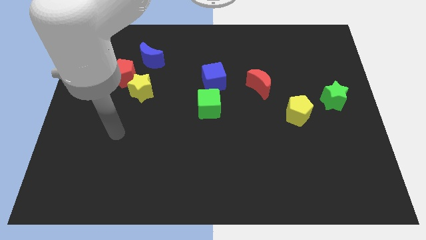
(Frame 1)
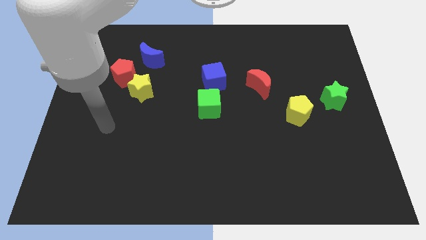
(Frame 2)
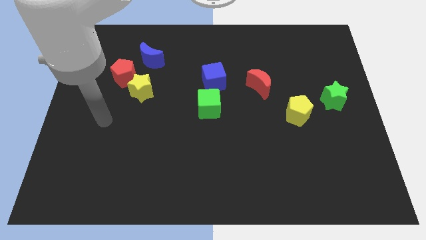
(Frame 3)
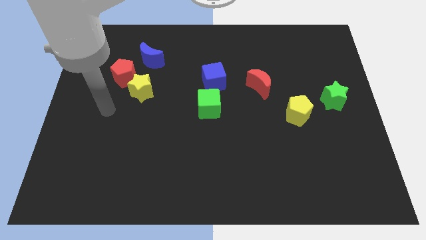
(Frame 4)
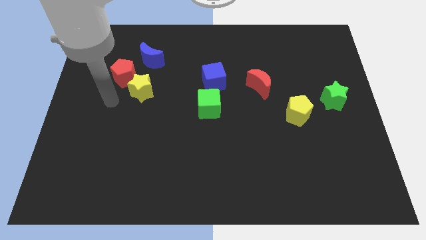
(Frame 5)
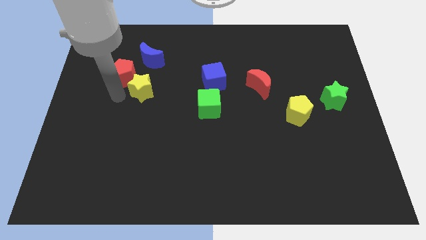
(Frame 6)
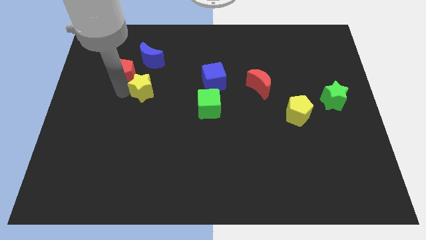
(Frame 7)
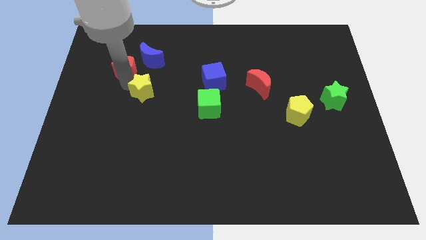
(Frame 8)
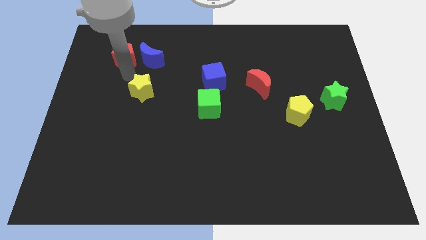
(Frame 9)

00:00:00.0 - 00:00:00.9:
move the yellow star away from the red pentagon

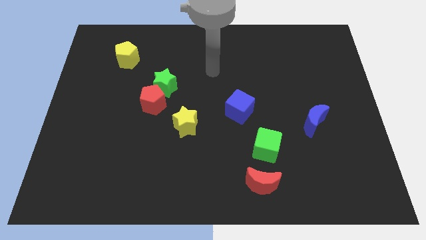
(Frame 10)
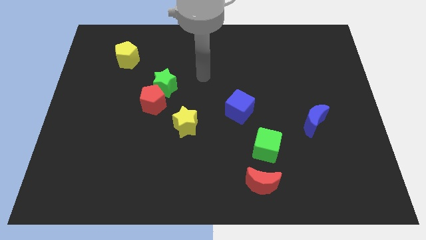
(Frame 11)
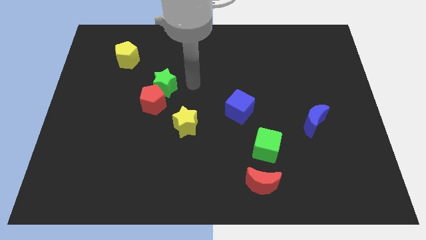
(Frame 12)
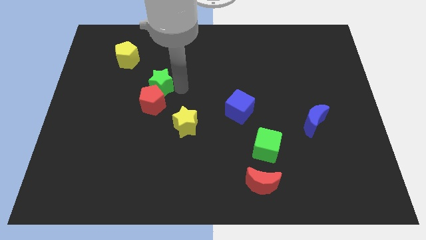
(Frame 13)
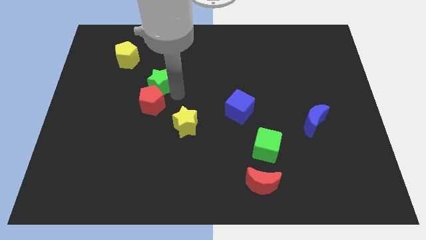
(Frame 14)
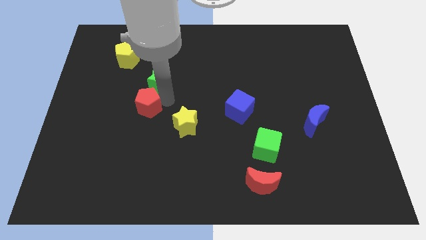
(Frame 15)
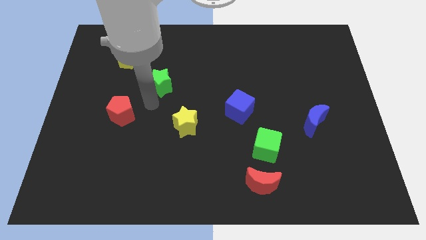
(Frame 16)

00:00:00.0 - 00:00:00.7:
separate the green star from the red pentagon

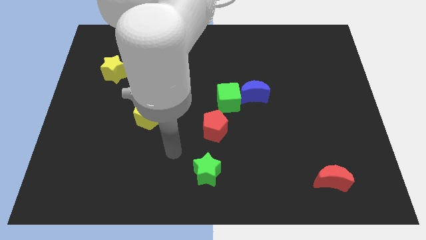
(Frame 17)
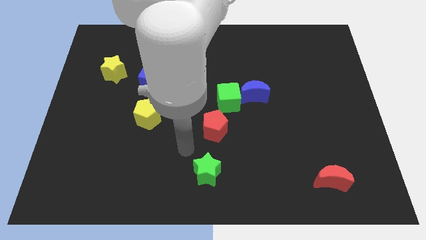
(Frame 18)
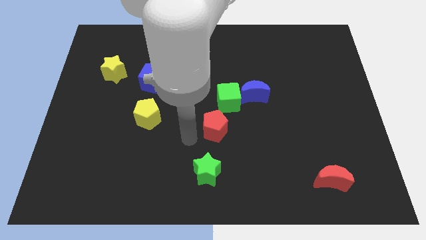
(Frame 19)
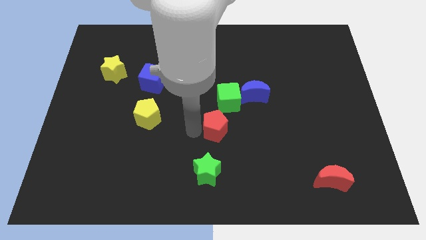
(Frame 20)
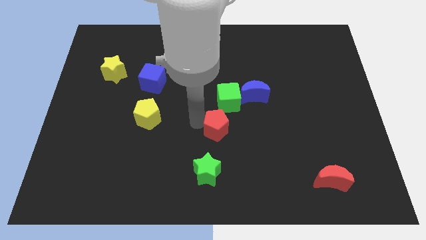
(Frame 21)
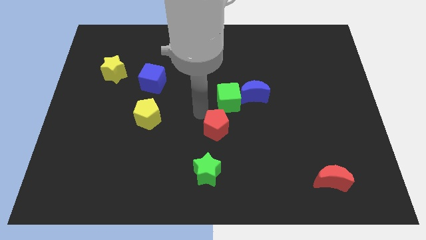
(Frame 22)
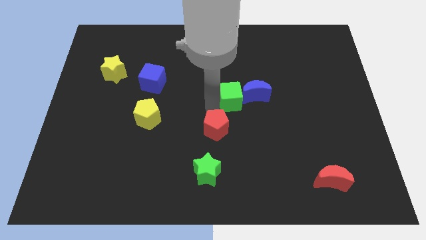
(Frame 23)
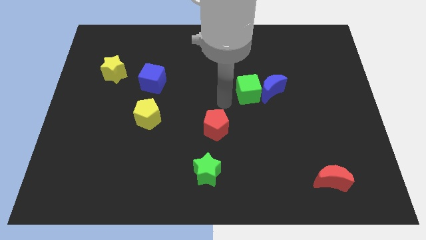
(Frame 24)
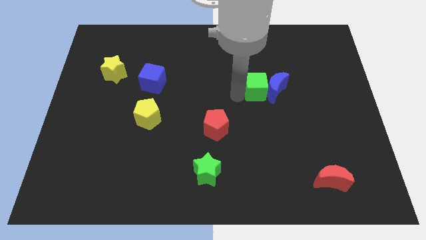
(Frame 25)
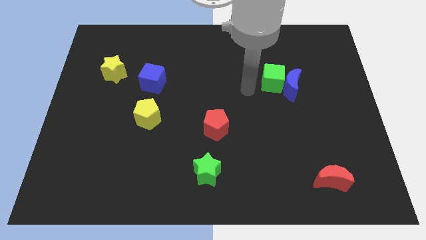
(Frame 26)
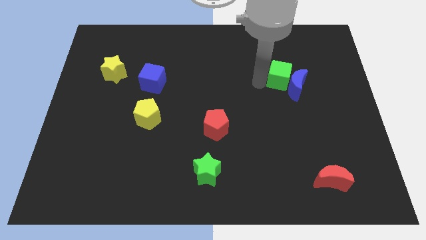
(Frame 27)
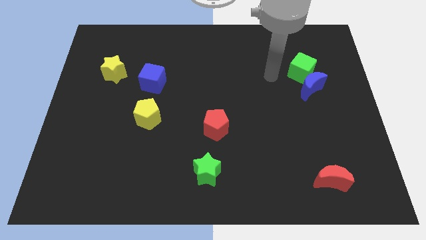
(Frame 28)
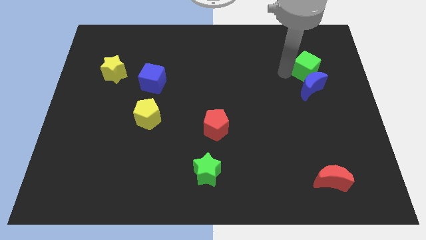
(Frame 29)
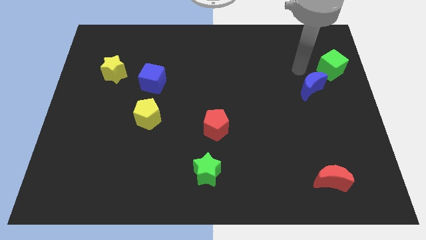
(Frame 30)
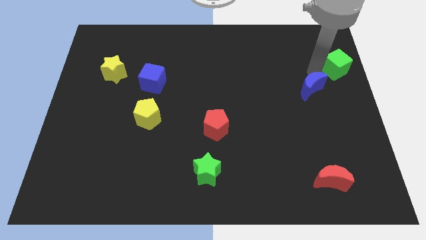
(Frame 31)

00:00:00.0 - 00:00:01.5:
pull the blue moon apart from the green cube

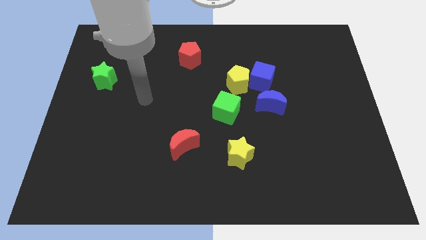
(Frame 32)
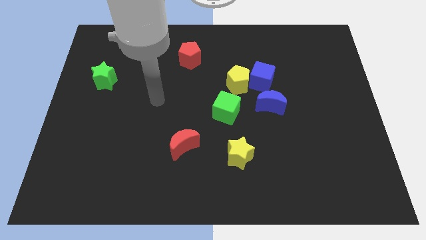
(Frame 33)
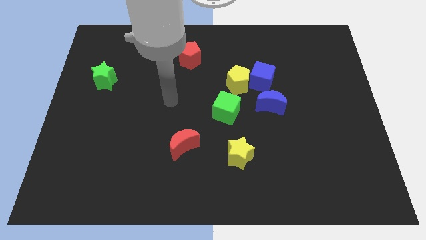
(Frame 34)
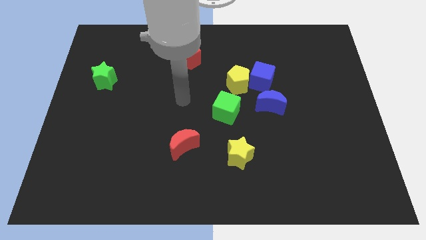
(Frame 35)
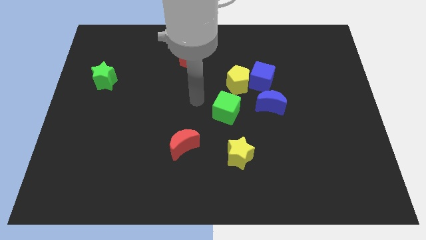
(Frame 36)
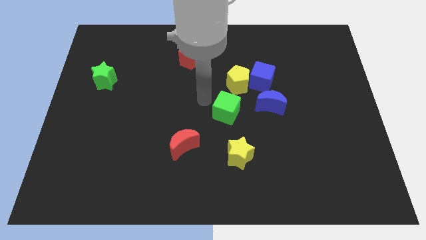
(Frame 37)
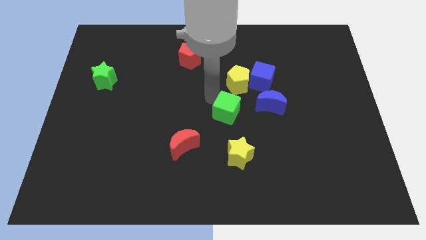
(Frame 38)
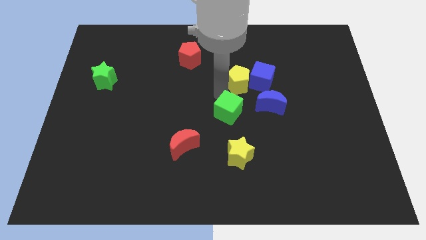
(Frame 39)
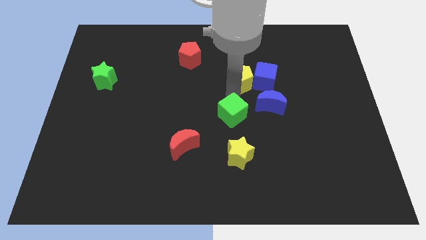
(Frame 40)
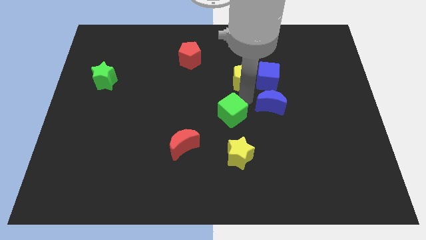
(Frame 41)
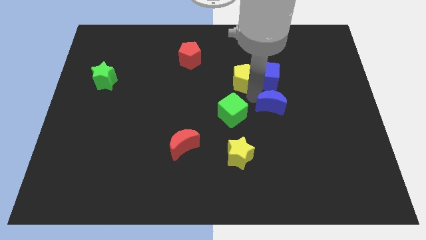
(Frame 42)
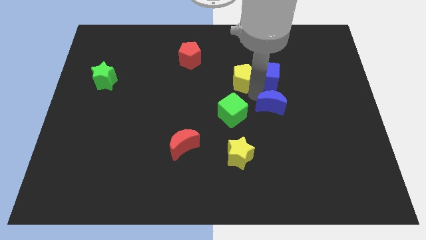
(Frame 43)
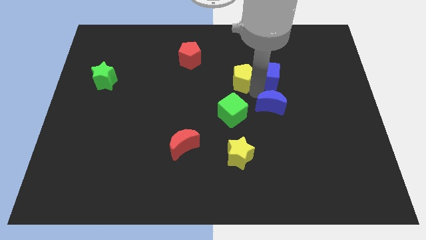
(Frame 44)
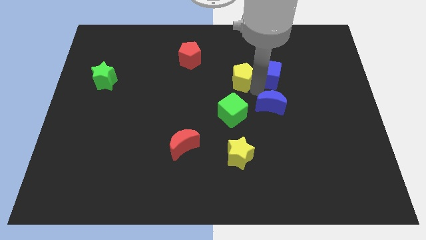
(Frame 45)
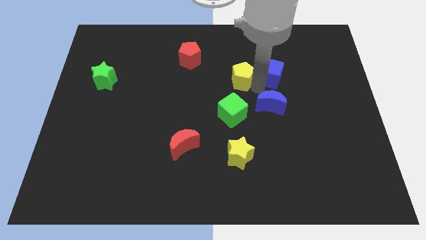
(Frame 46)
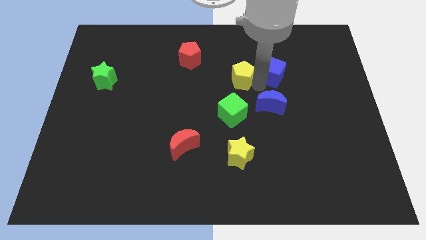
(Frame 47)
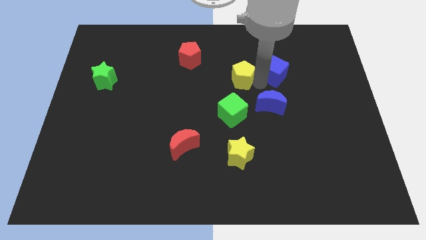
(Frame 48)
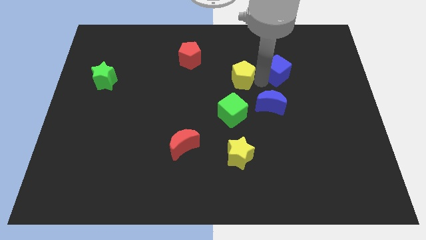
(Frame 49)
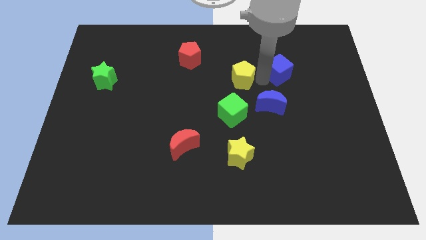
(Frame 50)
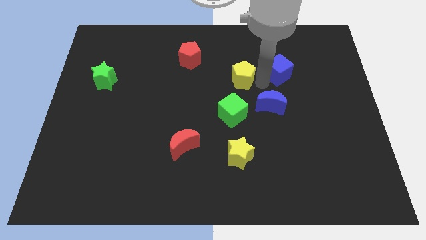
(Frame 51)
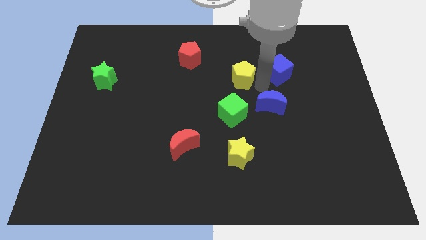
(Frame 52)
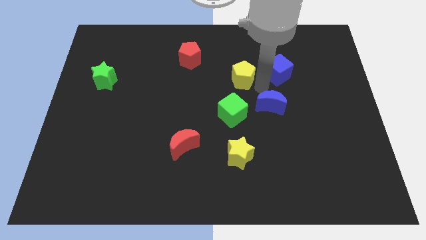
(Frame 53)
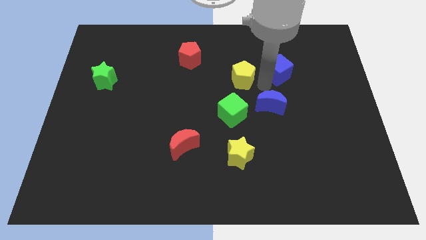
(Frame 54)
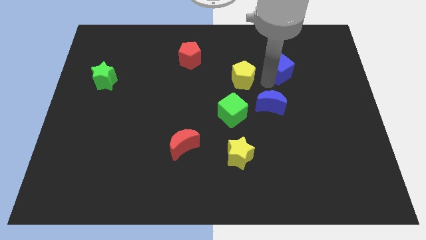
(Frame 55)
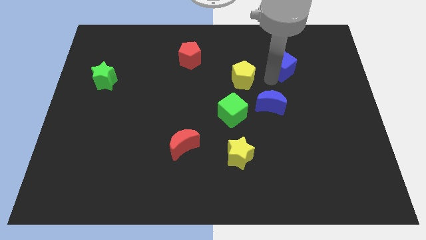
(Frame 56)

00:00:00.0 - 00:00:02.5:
move the blue cube away from the yellow pentagon and blue moon

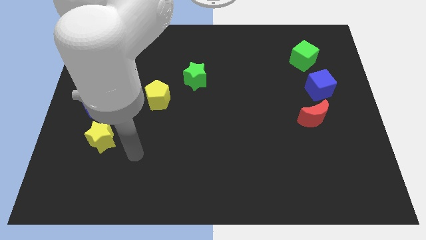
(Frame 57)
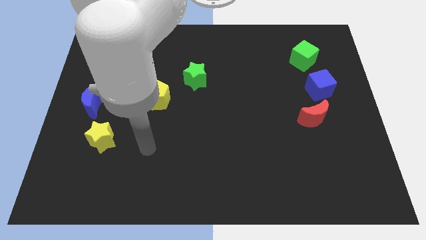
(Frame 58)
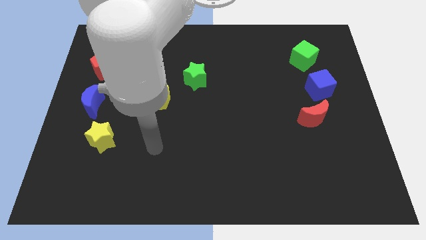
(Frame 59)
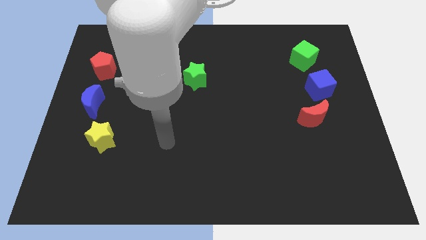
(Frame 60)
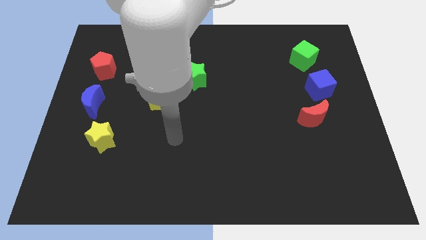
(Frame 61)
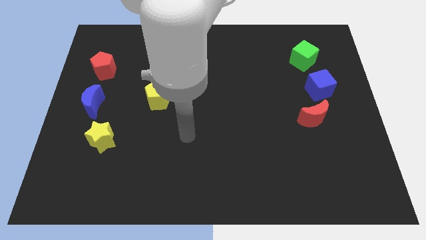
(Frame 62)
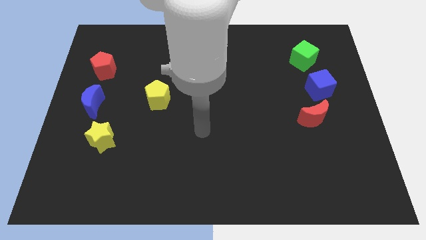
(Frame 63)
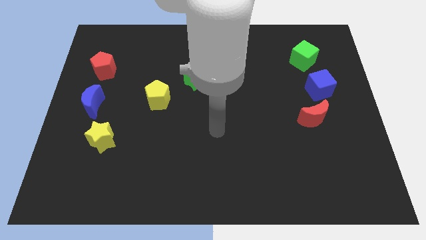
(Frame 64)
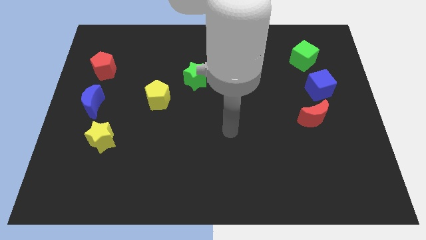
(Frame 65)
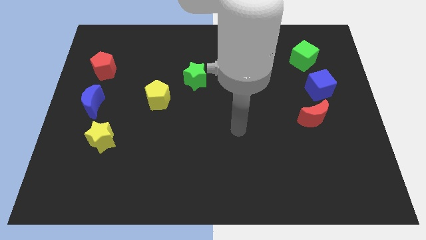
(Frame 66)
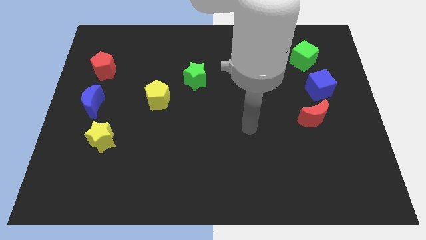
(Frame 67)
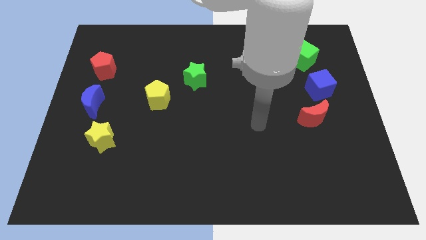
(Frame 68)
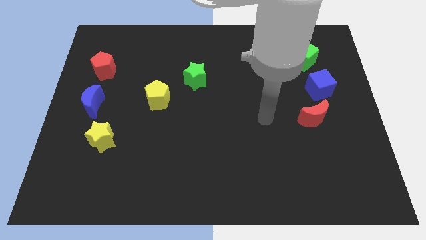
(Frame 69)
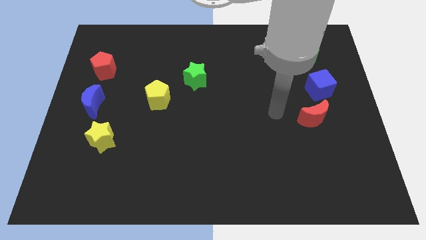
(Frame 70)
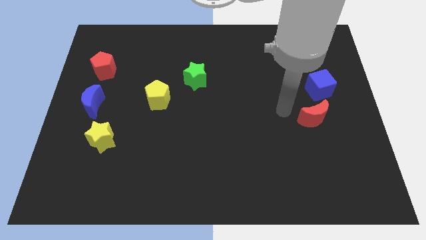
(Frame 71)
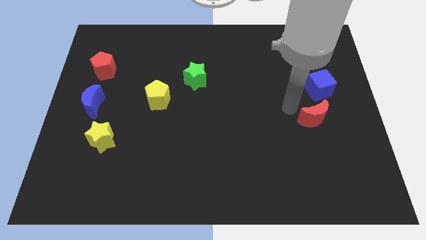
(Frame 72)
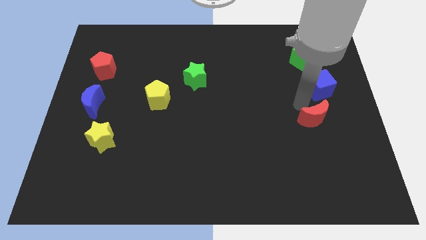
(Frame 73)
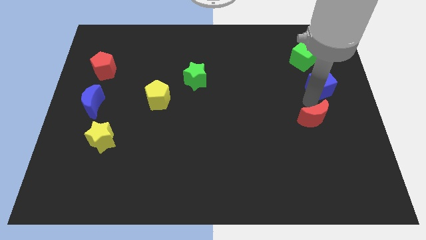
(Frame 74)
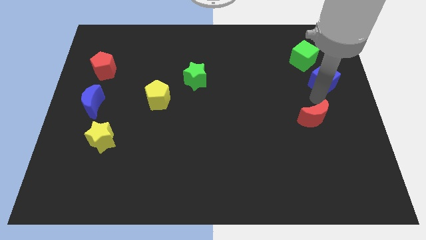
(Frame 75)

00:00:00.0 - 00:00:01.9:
pull the red moon apart from the blue cube

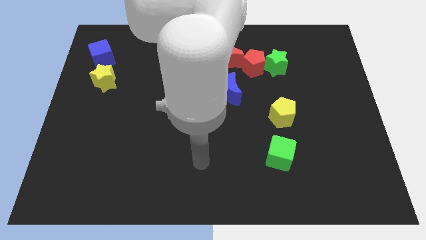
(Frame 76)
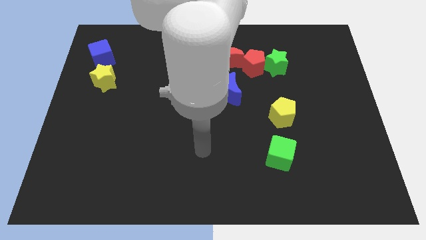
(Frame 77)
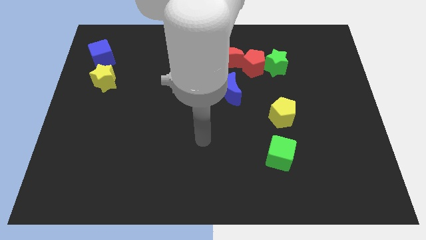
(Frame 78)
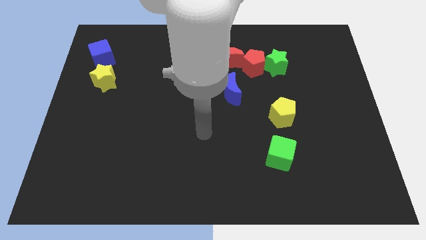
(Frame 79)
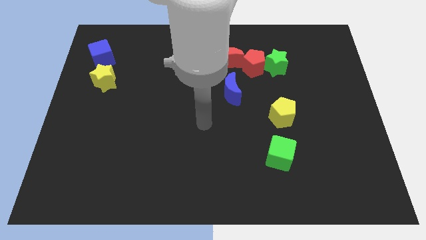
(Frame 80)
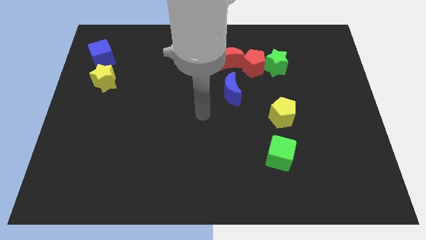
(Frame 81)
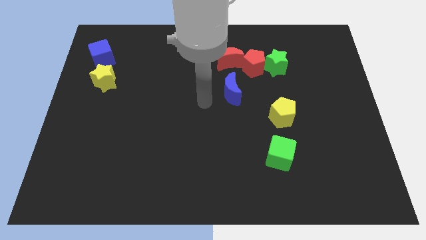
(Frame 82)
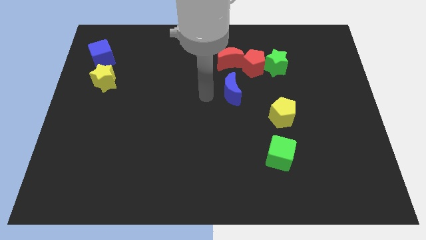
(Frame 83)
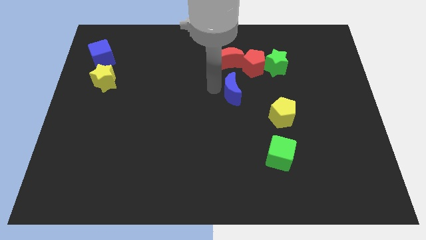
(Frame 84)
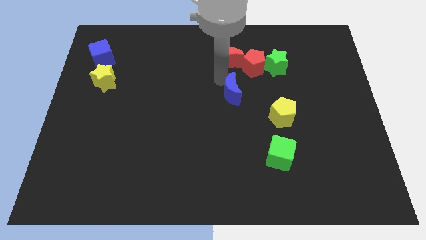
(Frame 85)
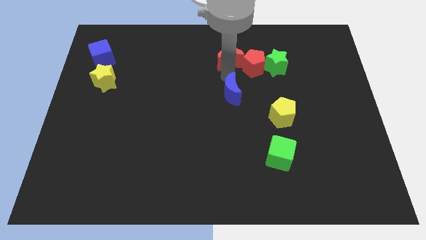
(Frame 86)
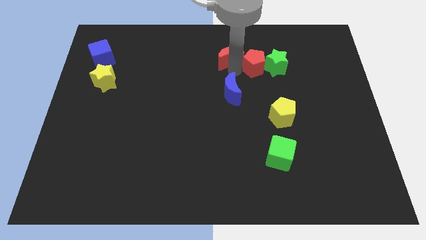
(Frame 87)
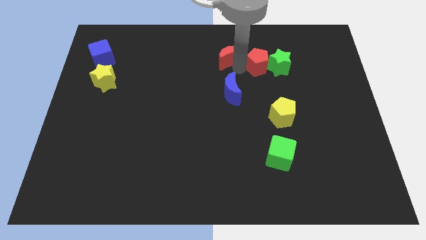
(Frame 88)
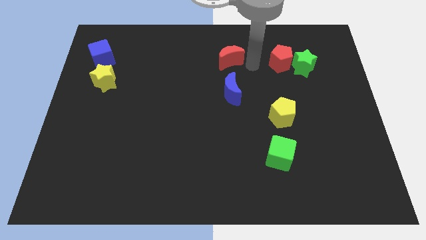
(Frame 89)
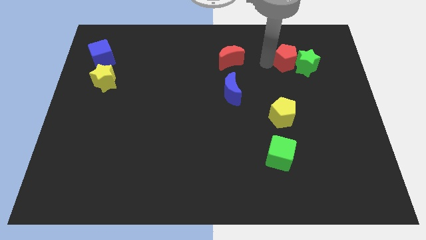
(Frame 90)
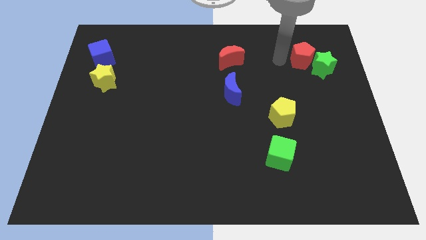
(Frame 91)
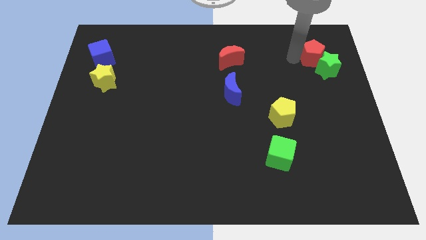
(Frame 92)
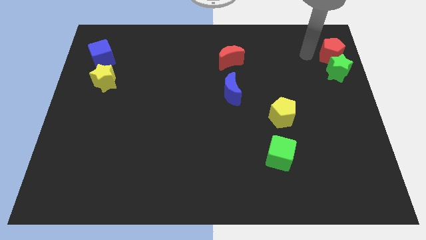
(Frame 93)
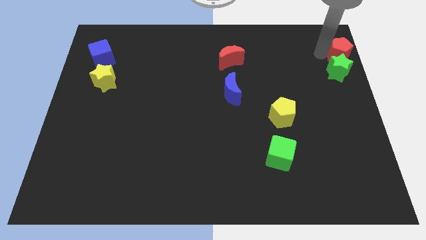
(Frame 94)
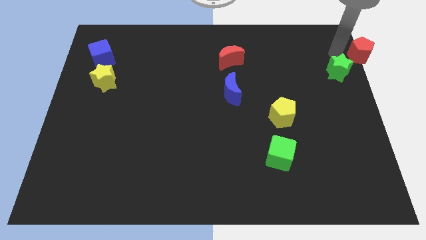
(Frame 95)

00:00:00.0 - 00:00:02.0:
move the green star away from the red pentagon
